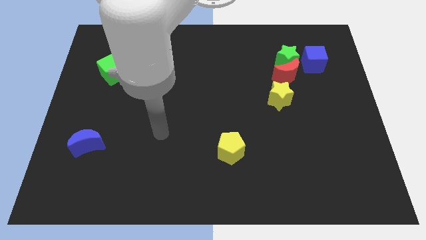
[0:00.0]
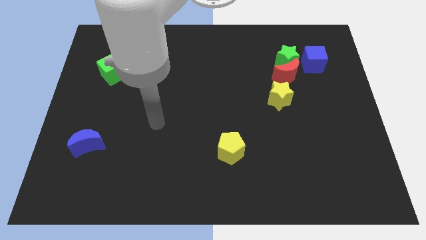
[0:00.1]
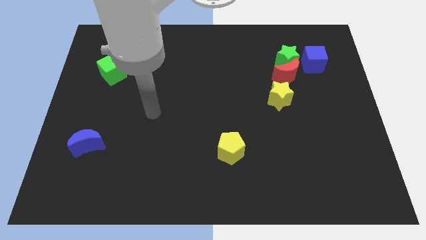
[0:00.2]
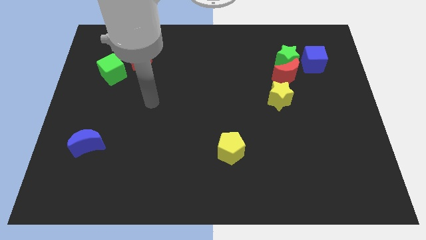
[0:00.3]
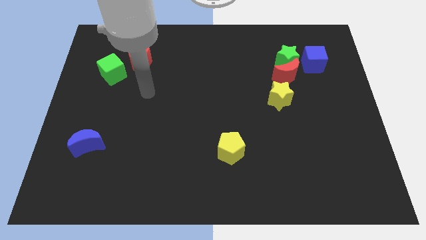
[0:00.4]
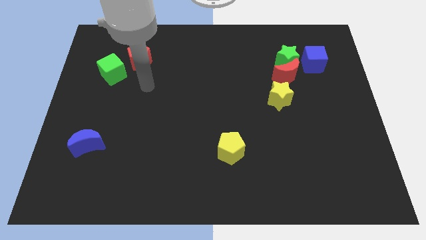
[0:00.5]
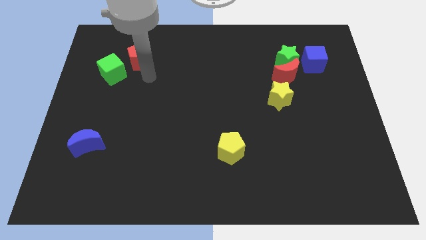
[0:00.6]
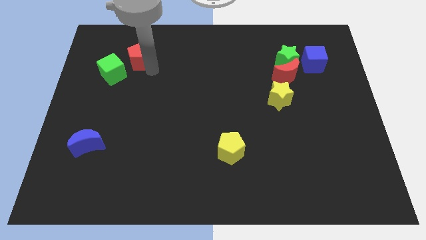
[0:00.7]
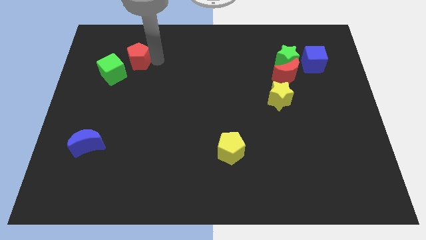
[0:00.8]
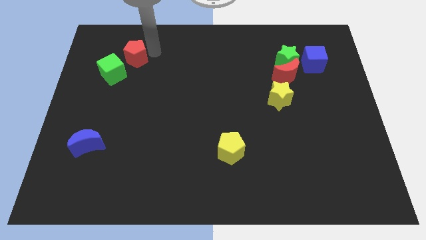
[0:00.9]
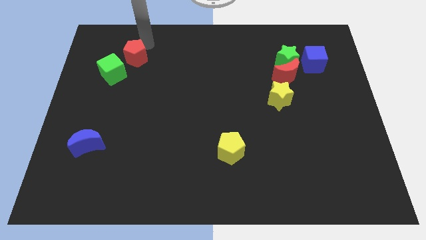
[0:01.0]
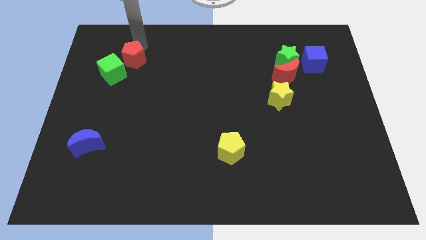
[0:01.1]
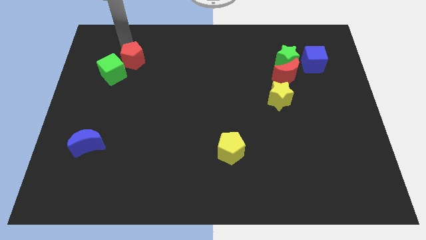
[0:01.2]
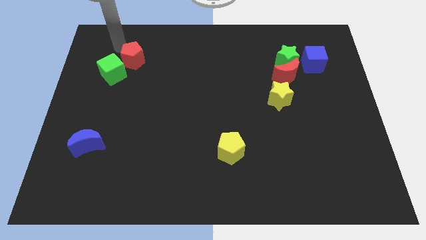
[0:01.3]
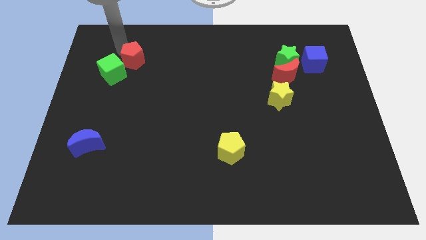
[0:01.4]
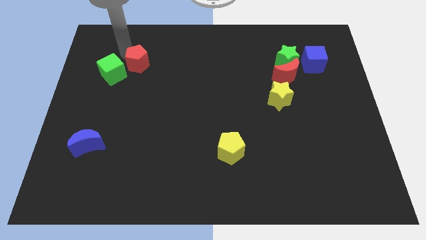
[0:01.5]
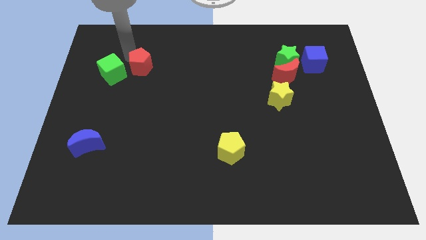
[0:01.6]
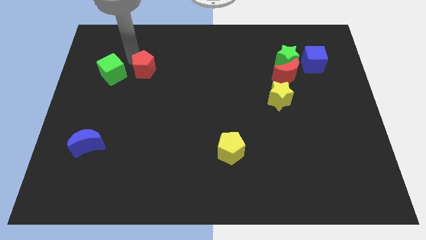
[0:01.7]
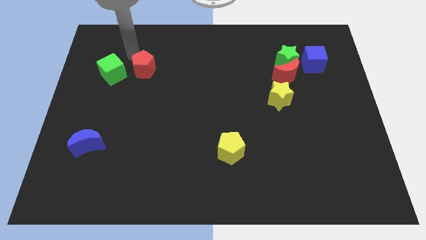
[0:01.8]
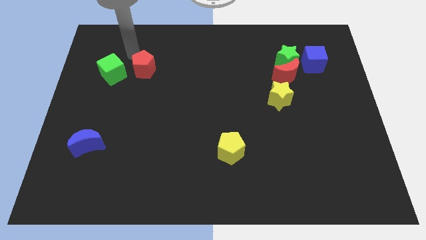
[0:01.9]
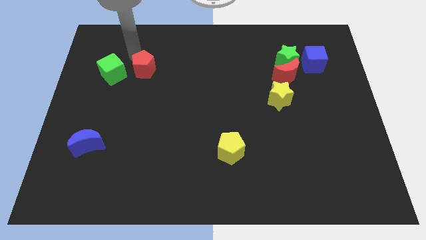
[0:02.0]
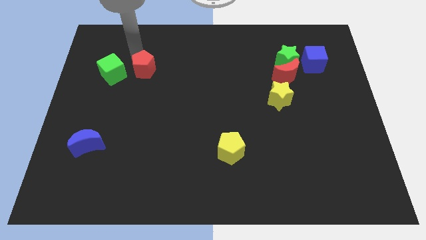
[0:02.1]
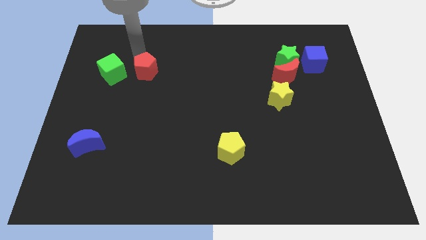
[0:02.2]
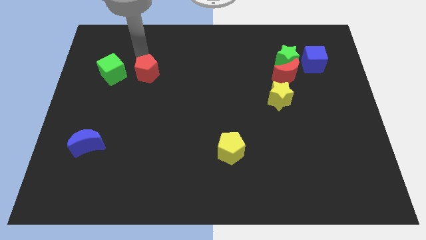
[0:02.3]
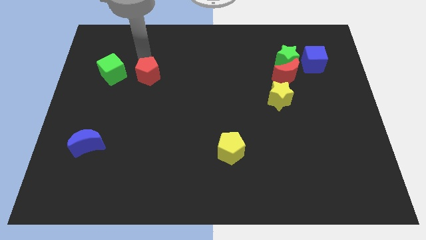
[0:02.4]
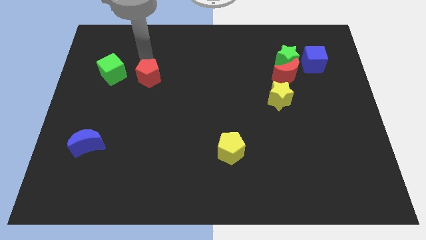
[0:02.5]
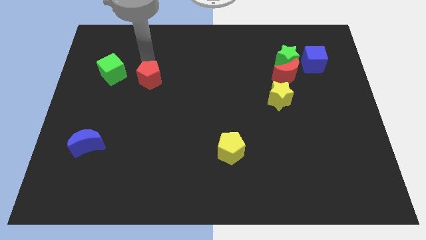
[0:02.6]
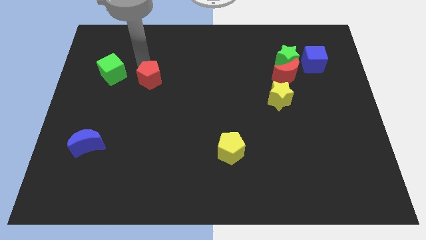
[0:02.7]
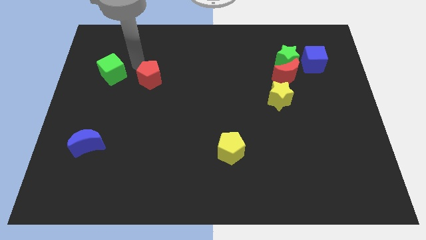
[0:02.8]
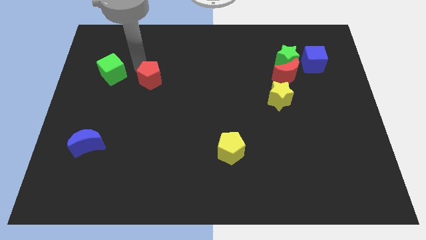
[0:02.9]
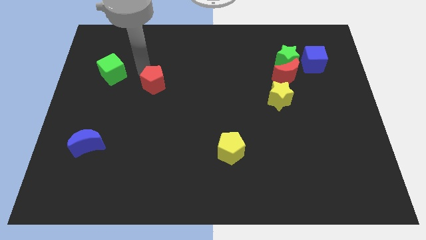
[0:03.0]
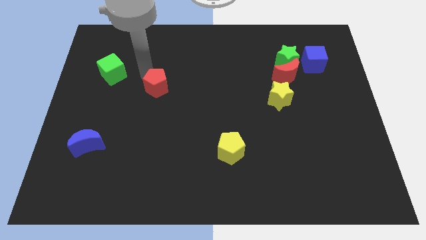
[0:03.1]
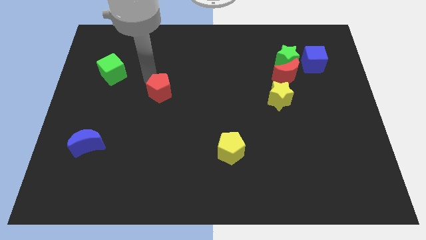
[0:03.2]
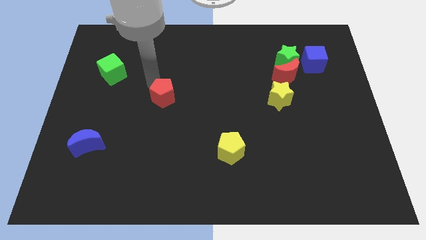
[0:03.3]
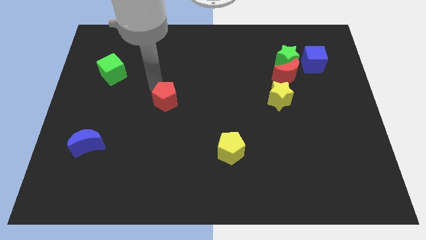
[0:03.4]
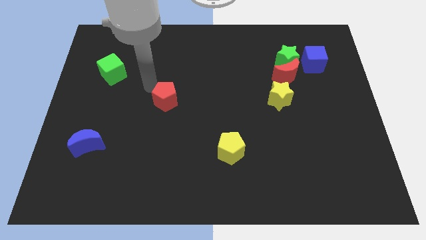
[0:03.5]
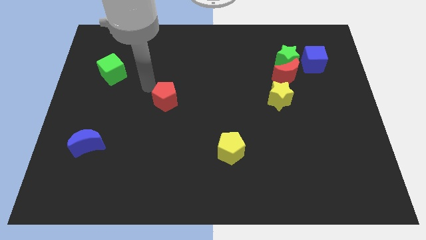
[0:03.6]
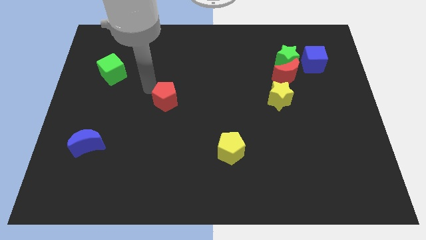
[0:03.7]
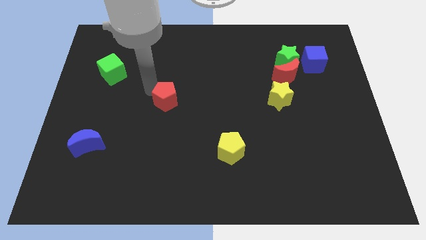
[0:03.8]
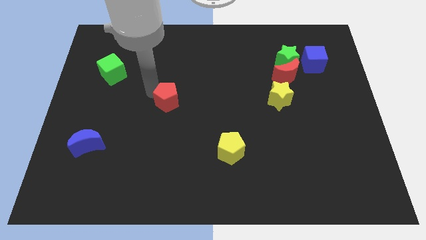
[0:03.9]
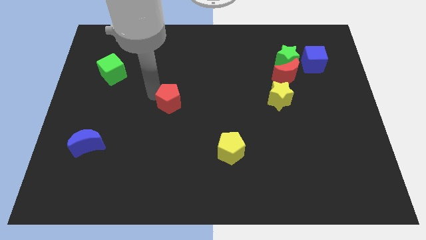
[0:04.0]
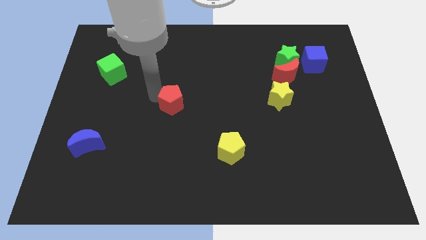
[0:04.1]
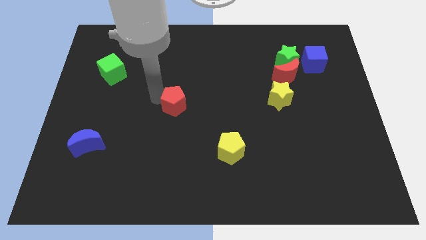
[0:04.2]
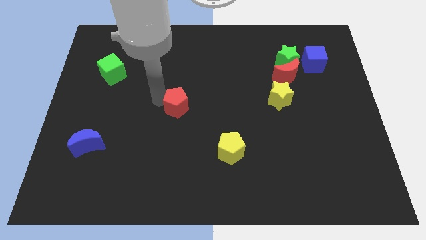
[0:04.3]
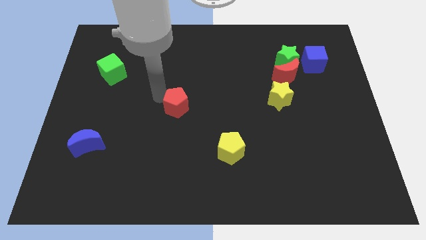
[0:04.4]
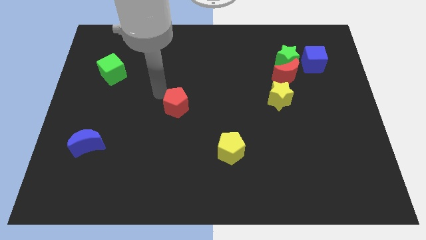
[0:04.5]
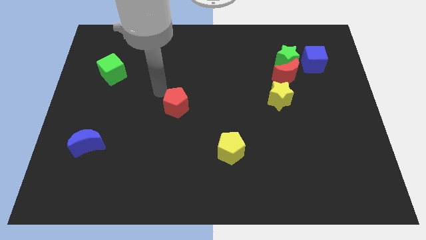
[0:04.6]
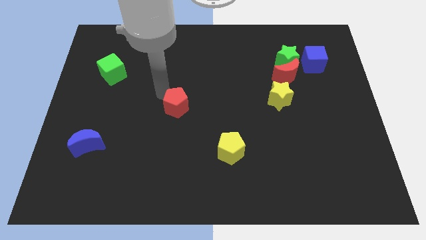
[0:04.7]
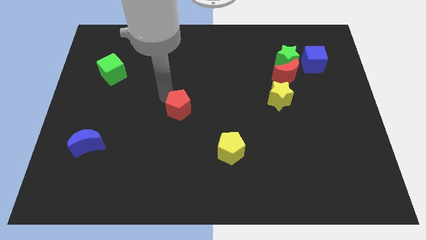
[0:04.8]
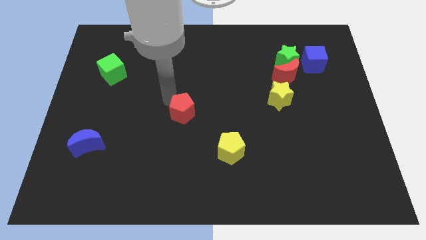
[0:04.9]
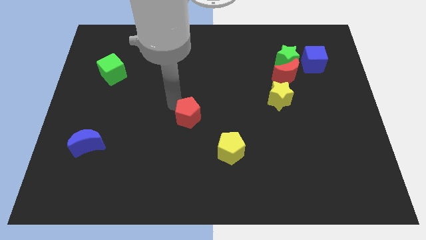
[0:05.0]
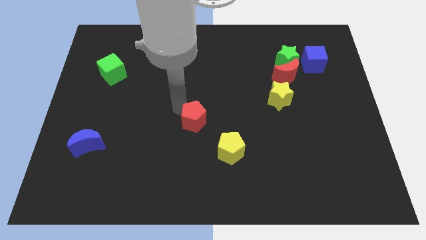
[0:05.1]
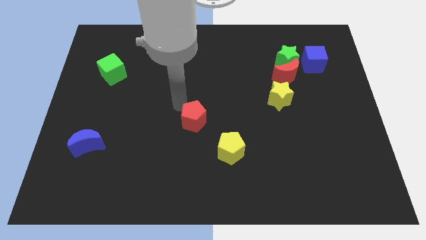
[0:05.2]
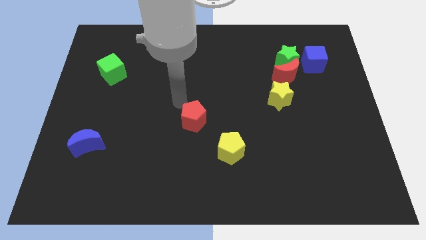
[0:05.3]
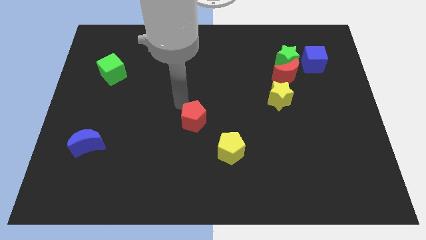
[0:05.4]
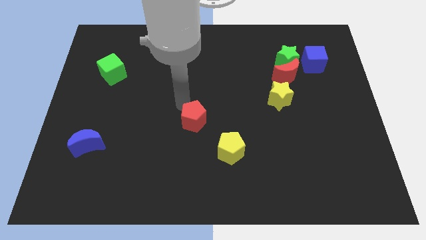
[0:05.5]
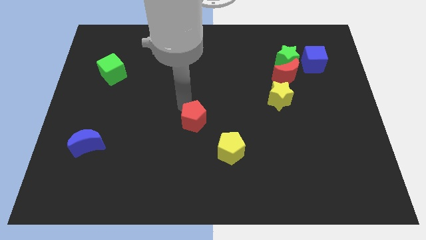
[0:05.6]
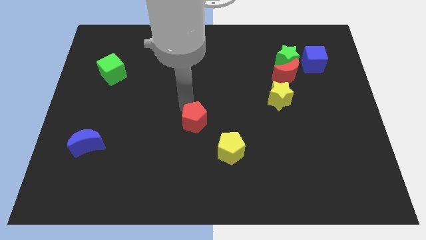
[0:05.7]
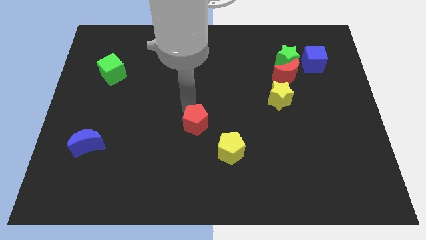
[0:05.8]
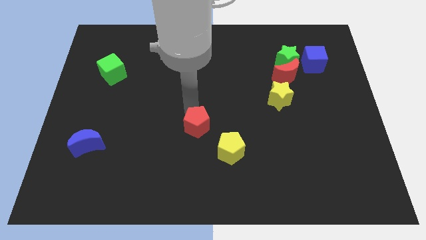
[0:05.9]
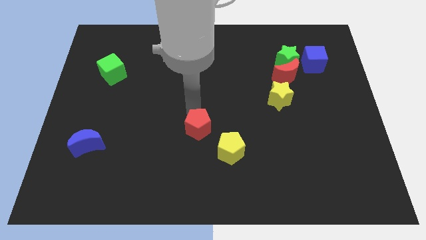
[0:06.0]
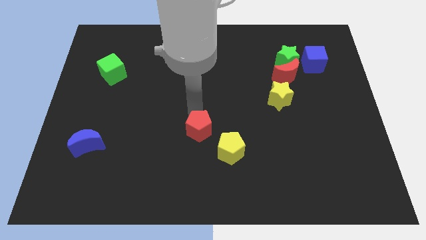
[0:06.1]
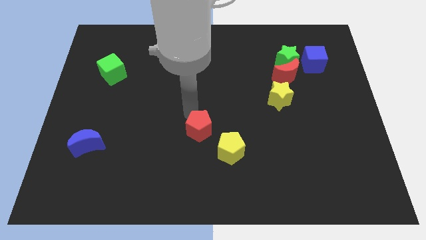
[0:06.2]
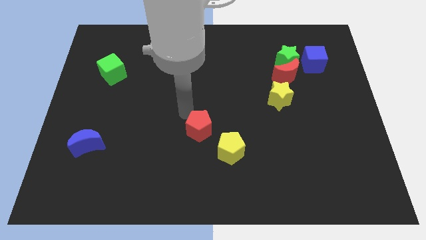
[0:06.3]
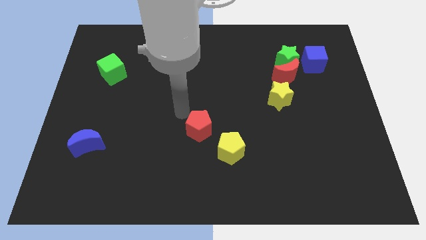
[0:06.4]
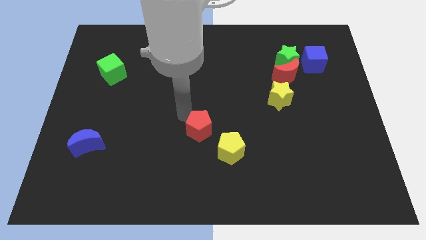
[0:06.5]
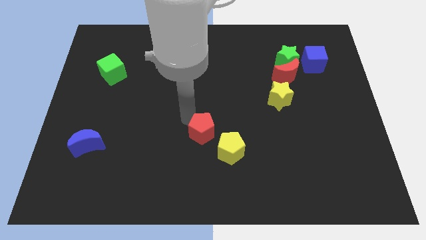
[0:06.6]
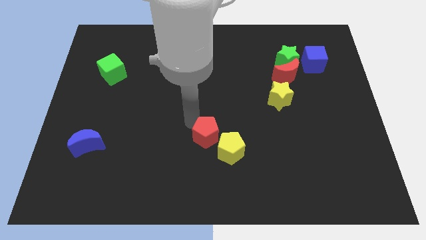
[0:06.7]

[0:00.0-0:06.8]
slide the red pentagon next to the yellow pentagon
